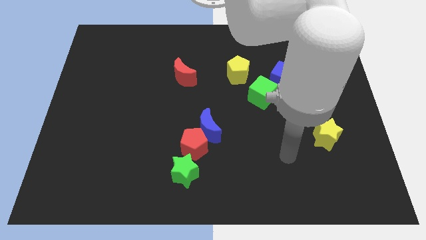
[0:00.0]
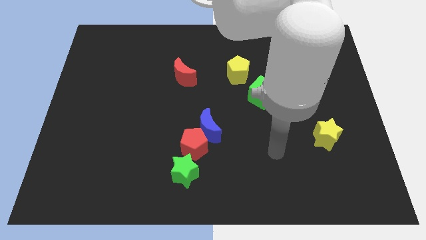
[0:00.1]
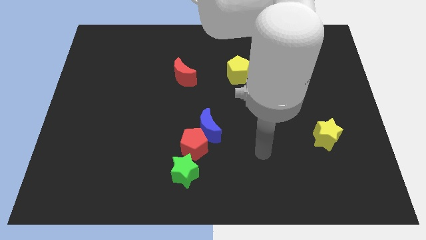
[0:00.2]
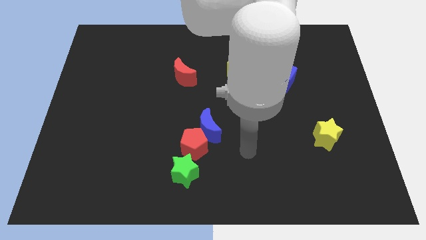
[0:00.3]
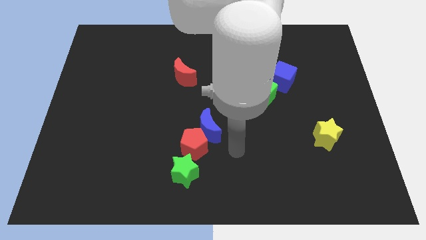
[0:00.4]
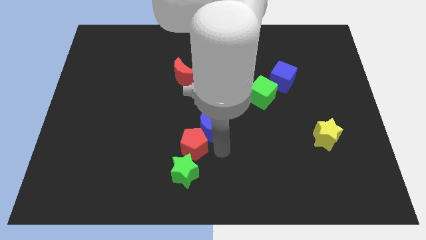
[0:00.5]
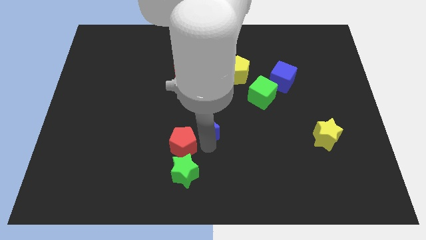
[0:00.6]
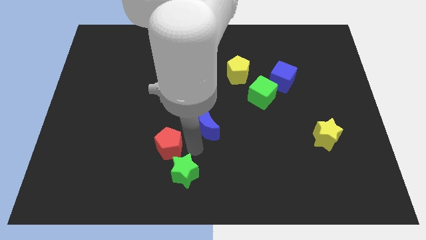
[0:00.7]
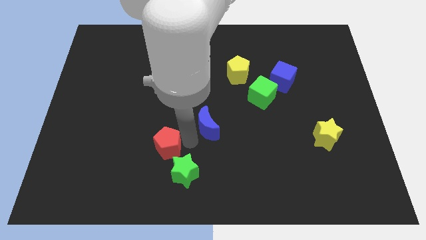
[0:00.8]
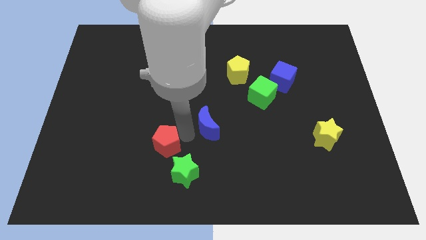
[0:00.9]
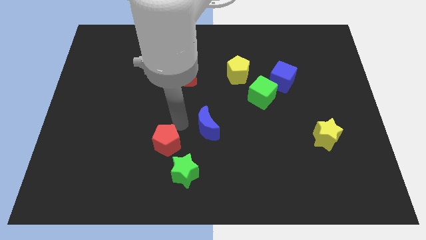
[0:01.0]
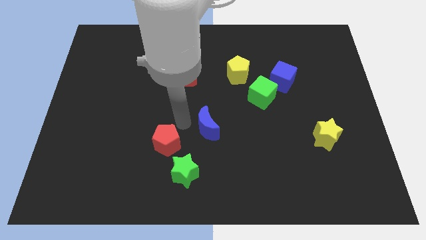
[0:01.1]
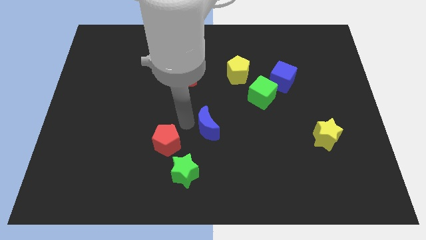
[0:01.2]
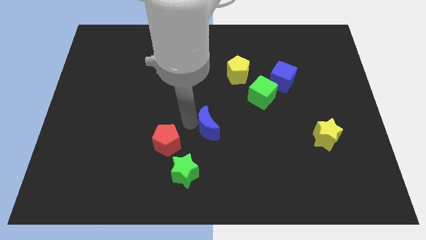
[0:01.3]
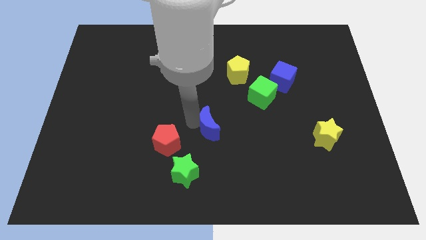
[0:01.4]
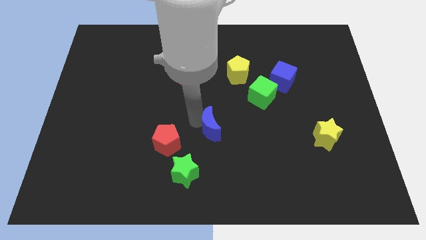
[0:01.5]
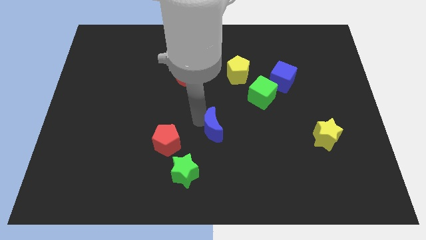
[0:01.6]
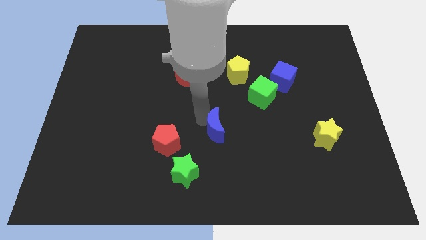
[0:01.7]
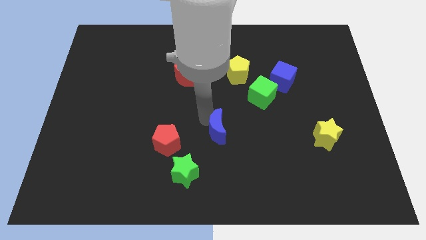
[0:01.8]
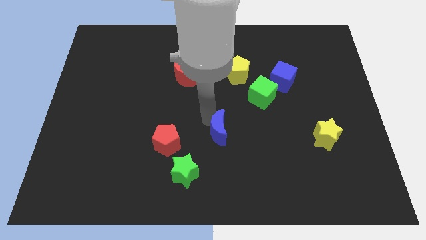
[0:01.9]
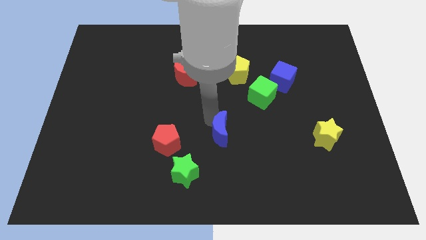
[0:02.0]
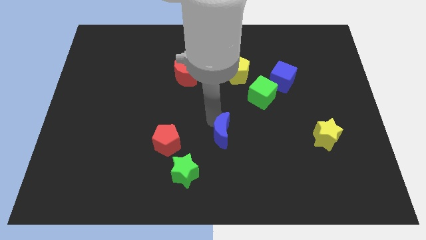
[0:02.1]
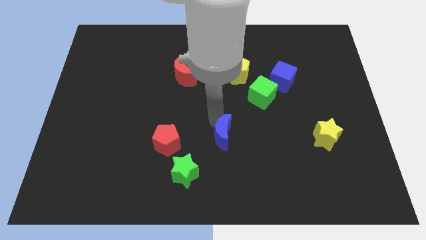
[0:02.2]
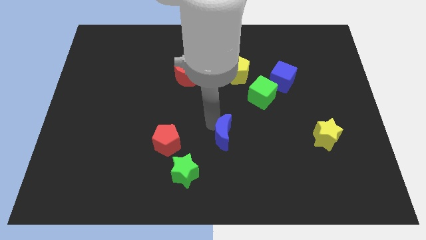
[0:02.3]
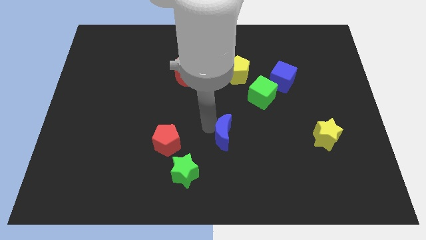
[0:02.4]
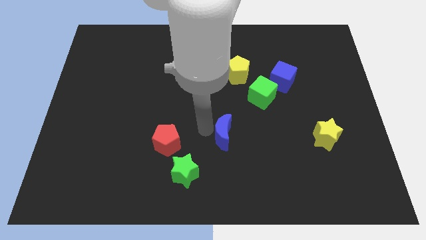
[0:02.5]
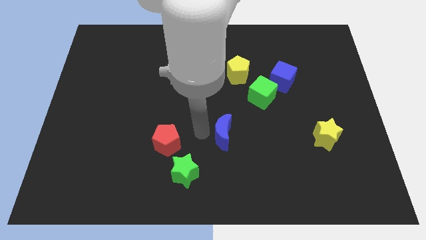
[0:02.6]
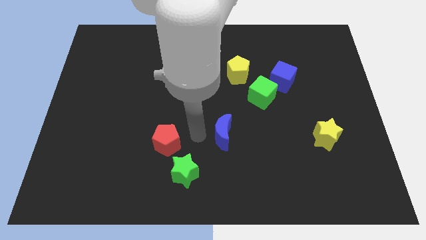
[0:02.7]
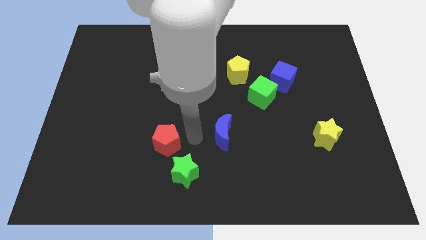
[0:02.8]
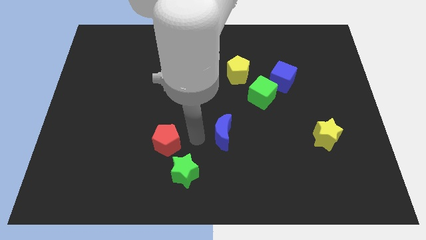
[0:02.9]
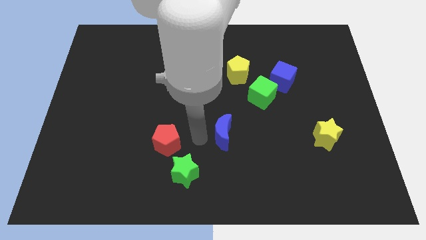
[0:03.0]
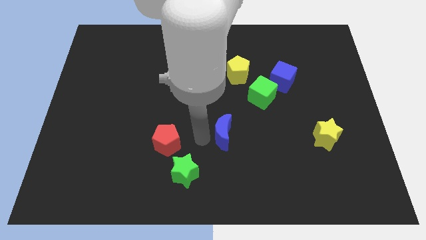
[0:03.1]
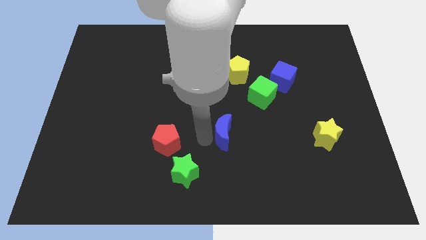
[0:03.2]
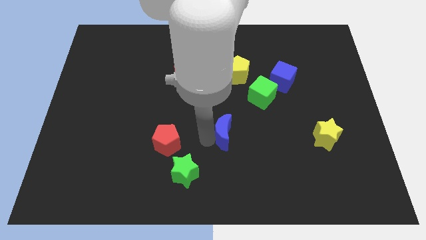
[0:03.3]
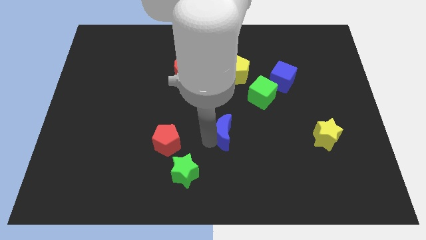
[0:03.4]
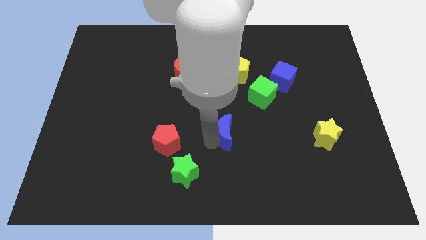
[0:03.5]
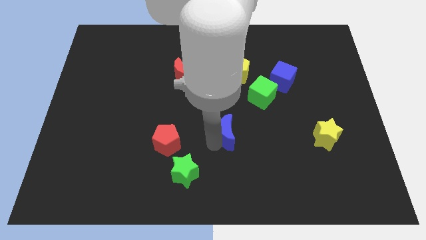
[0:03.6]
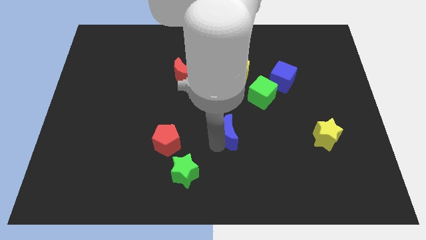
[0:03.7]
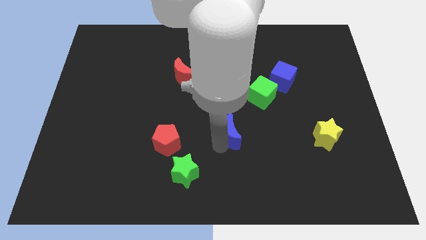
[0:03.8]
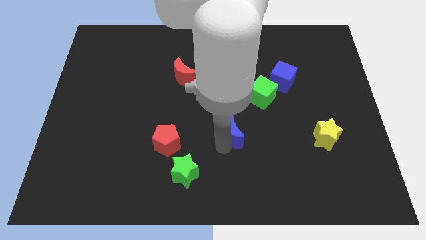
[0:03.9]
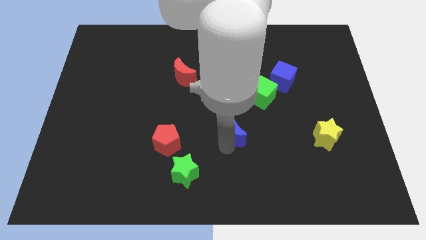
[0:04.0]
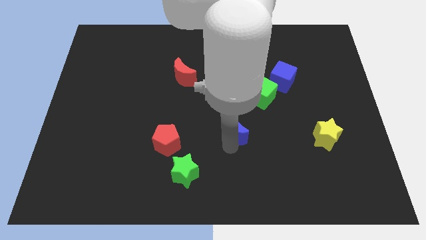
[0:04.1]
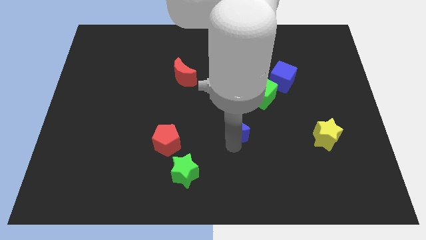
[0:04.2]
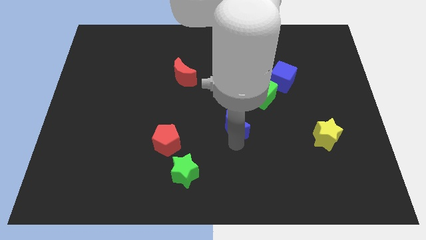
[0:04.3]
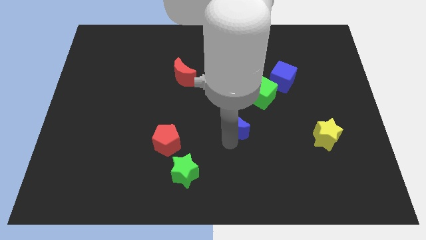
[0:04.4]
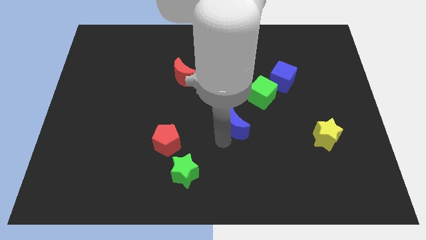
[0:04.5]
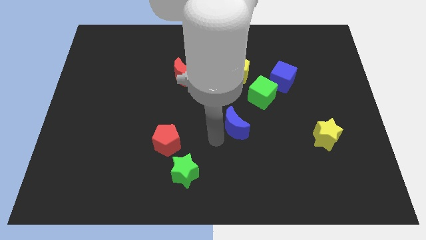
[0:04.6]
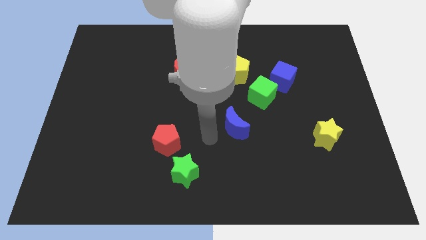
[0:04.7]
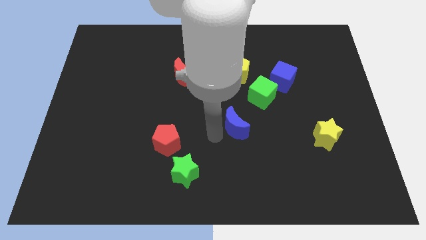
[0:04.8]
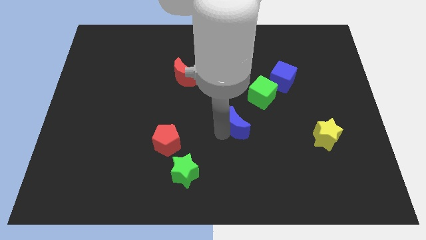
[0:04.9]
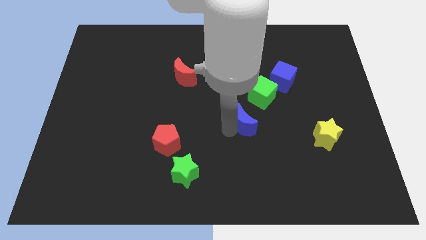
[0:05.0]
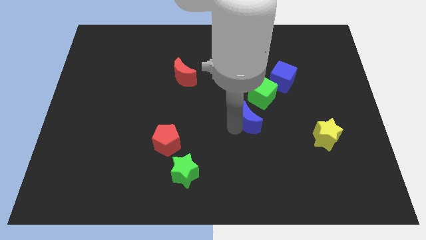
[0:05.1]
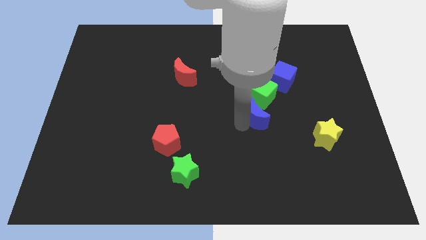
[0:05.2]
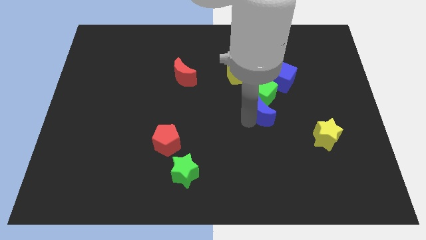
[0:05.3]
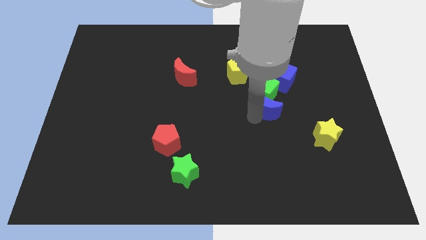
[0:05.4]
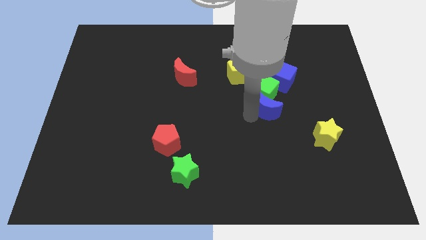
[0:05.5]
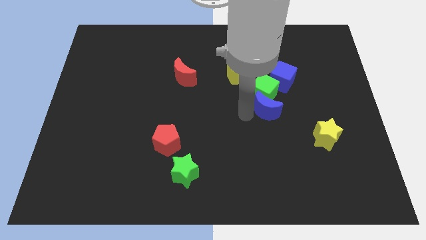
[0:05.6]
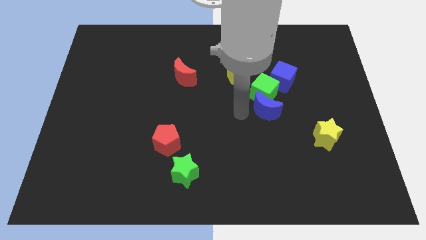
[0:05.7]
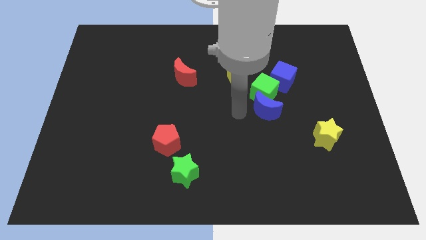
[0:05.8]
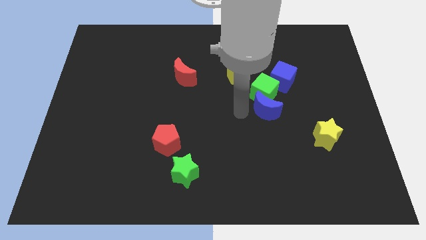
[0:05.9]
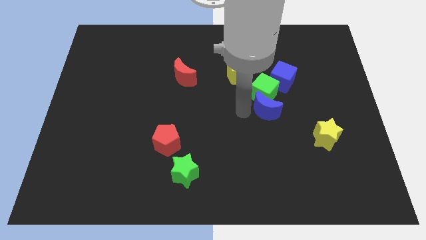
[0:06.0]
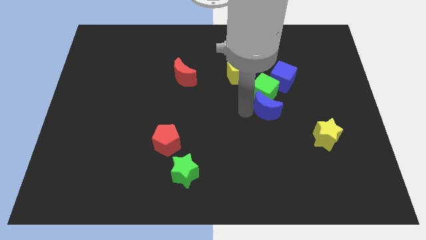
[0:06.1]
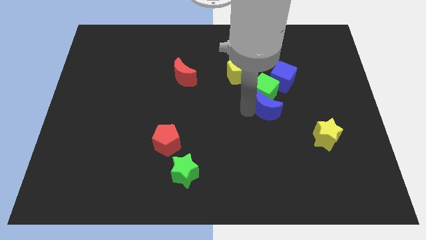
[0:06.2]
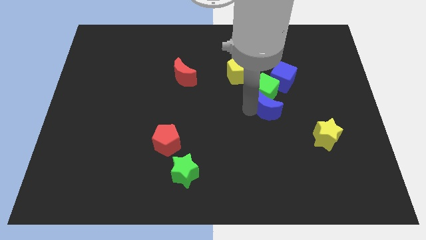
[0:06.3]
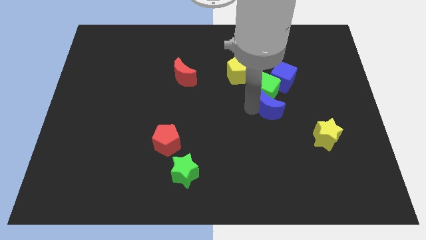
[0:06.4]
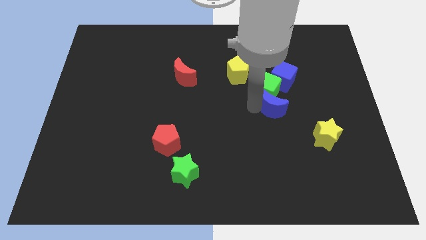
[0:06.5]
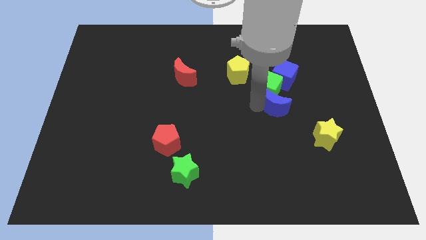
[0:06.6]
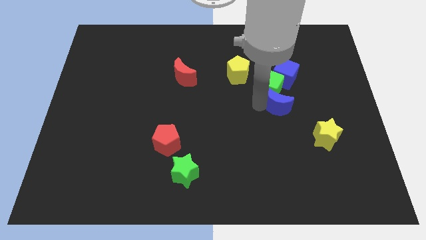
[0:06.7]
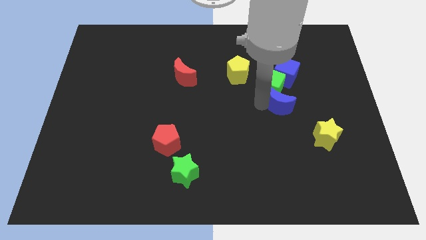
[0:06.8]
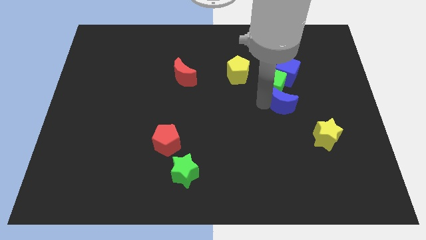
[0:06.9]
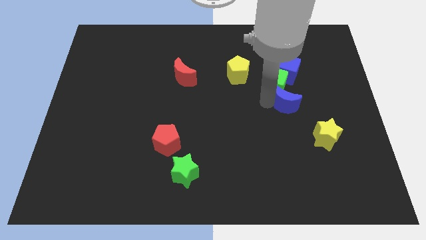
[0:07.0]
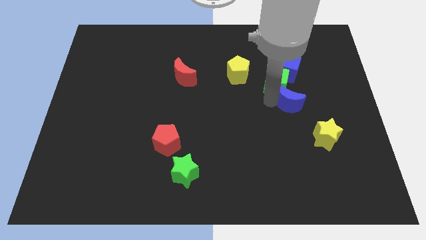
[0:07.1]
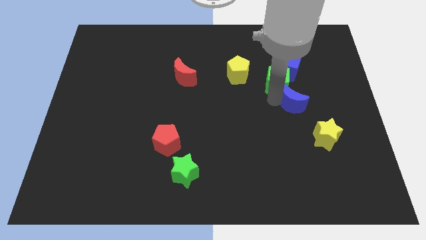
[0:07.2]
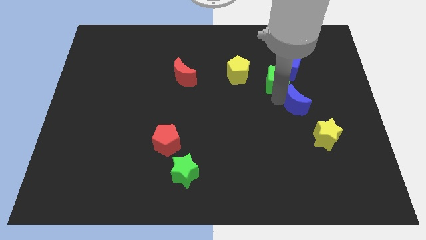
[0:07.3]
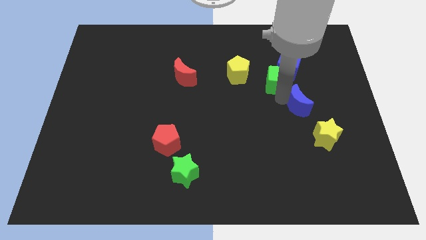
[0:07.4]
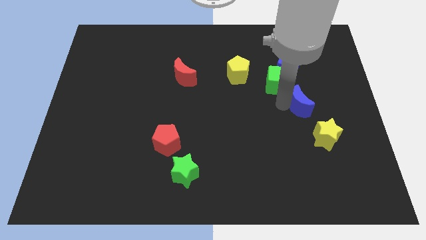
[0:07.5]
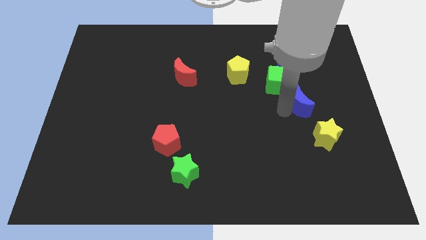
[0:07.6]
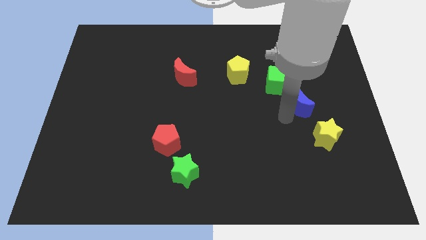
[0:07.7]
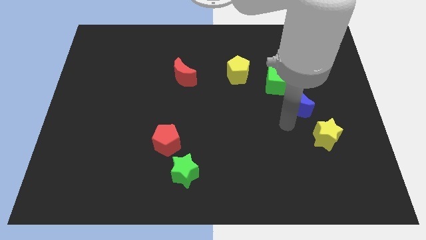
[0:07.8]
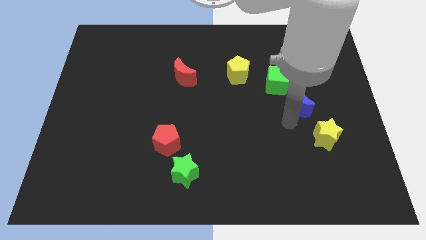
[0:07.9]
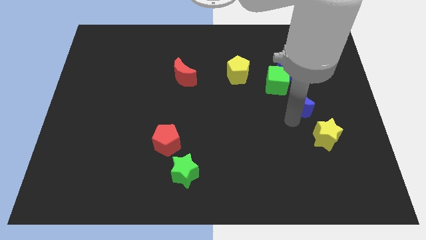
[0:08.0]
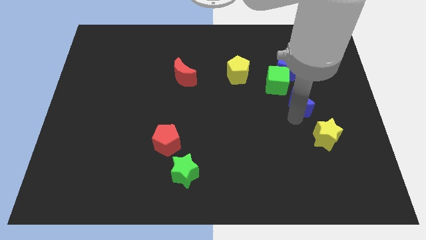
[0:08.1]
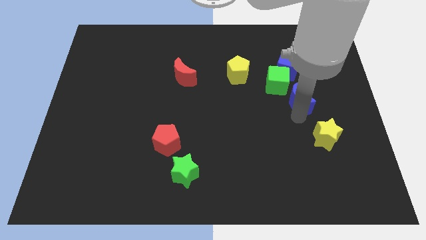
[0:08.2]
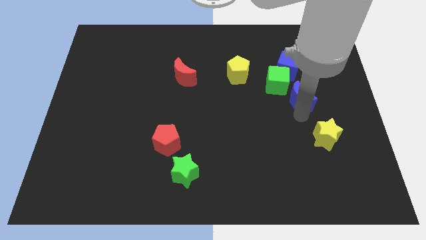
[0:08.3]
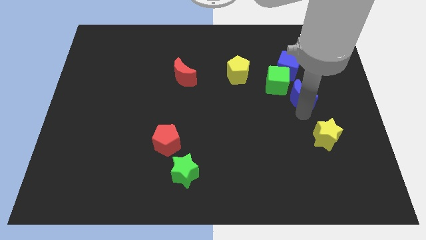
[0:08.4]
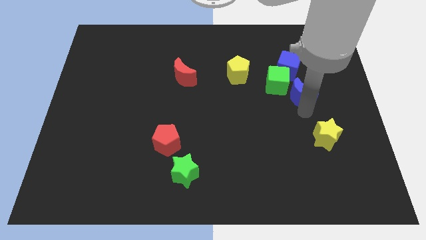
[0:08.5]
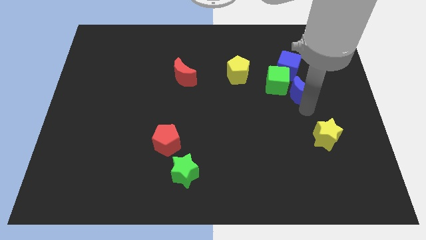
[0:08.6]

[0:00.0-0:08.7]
slide the blue moon diagonally down and to the right of the blue cube
